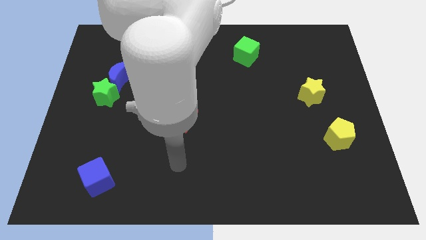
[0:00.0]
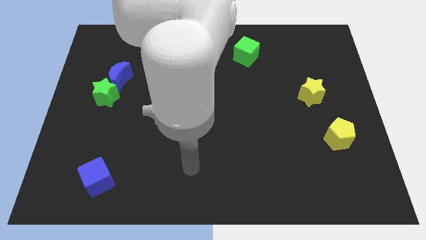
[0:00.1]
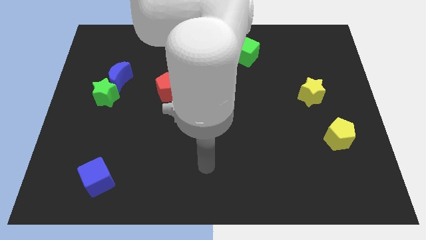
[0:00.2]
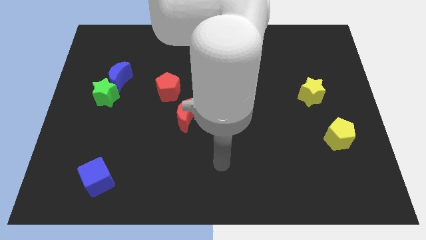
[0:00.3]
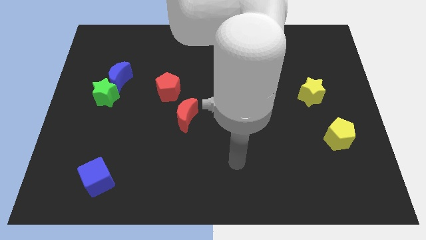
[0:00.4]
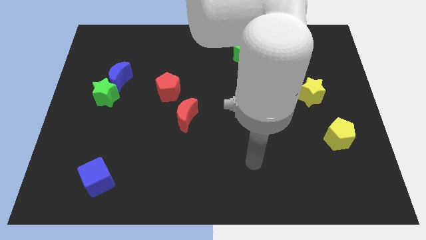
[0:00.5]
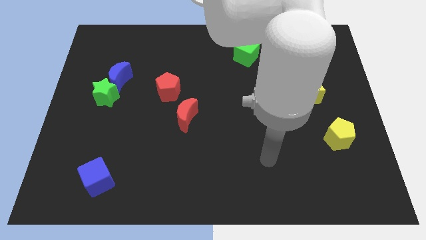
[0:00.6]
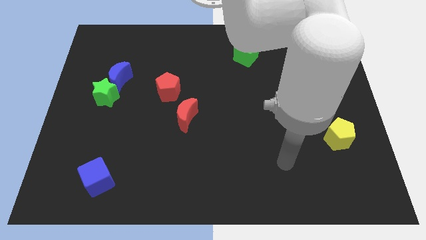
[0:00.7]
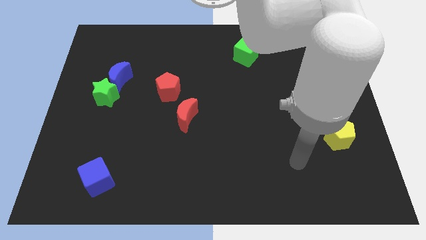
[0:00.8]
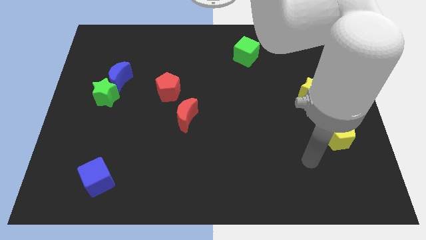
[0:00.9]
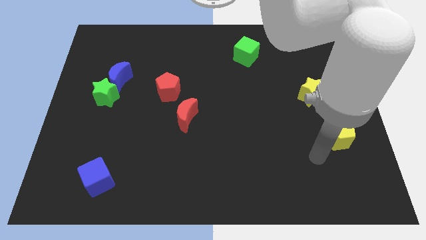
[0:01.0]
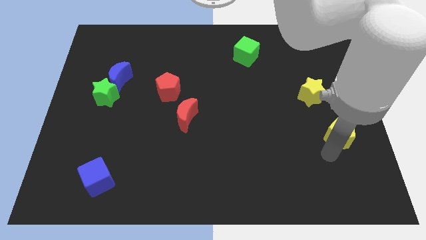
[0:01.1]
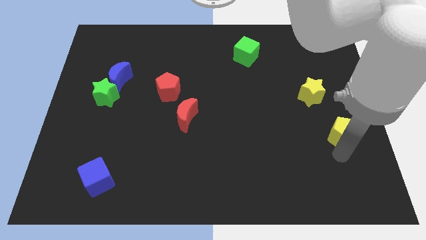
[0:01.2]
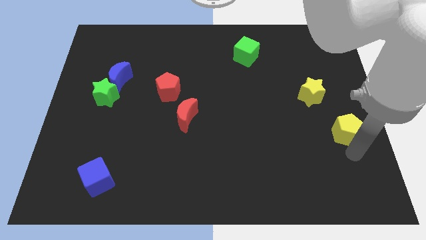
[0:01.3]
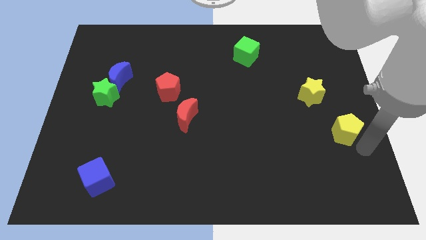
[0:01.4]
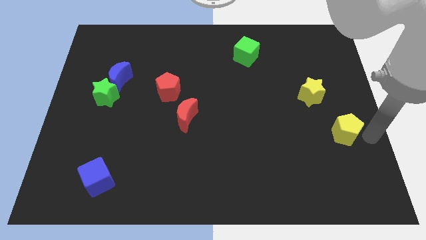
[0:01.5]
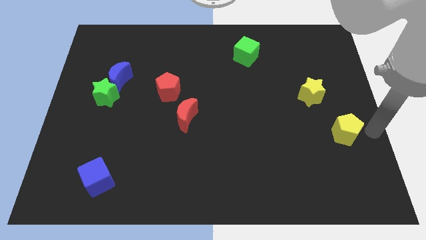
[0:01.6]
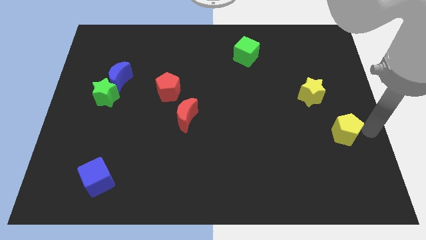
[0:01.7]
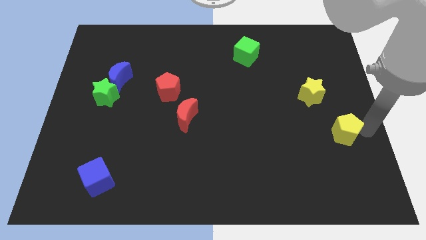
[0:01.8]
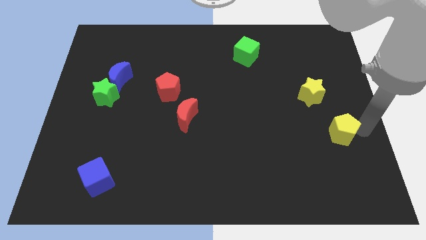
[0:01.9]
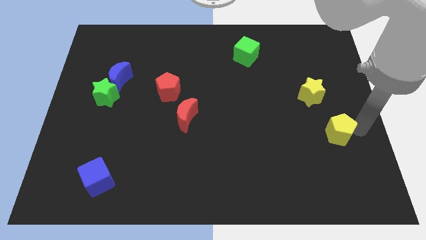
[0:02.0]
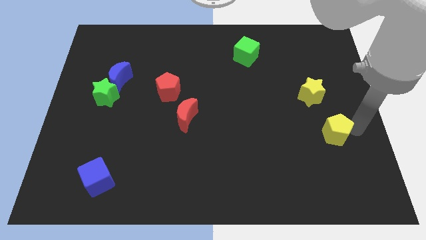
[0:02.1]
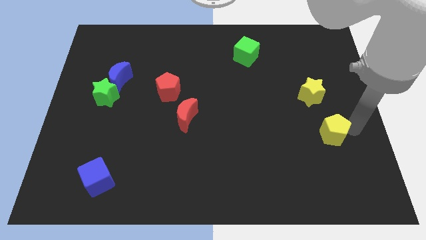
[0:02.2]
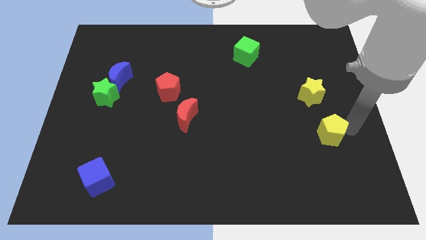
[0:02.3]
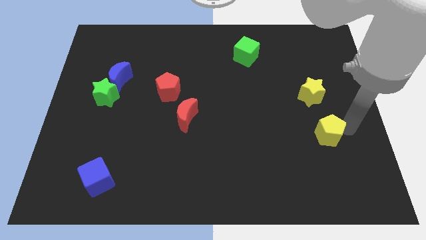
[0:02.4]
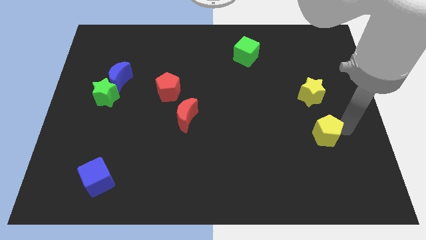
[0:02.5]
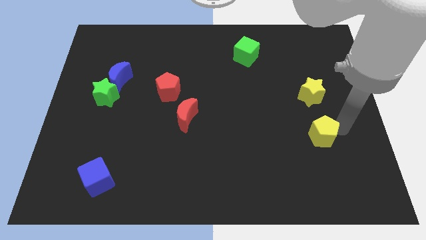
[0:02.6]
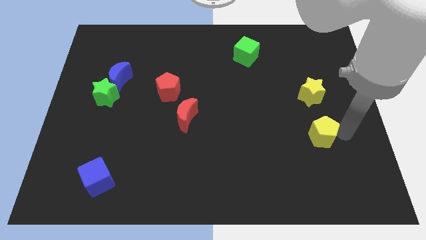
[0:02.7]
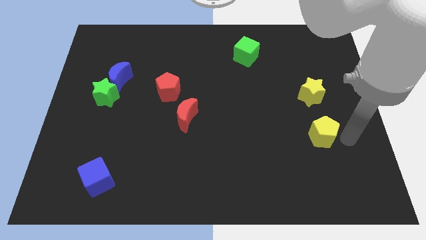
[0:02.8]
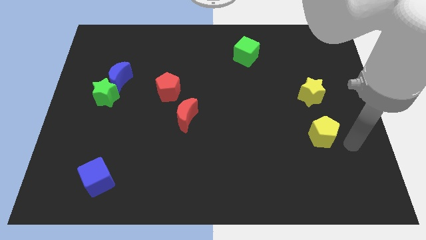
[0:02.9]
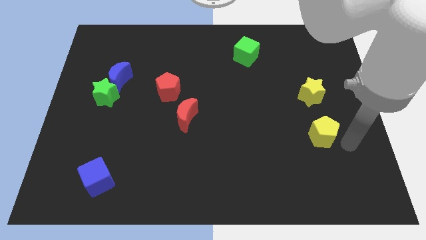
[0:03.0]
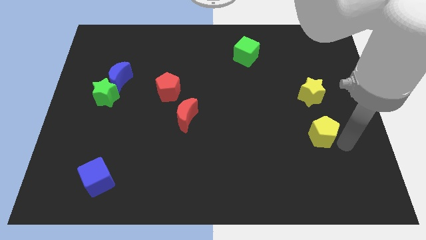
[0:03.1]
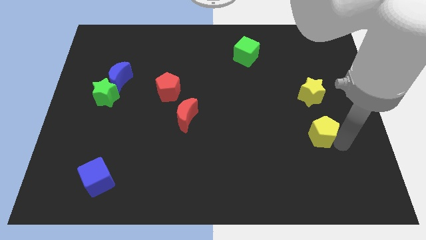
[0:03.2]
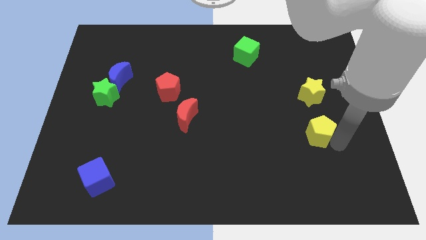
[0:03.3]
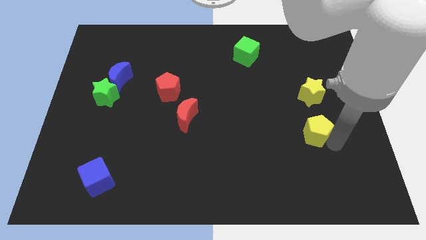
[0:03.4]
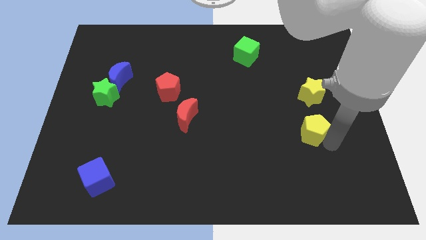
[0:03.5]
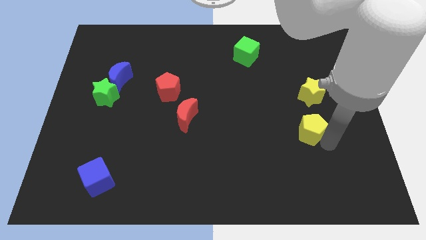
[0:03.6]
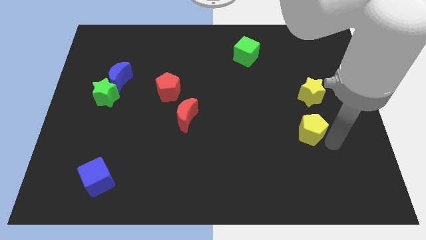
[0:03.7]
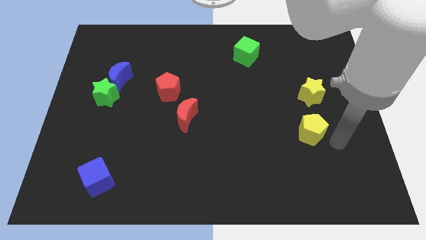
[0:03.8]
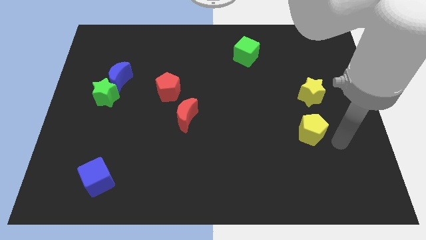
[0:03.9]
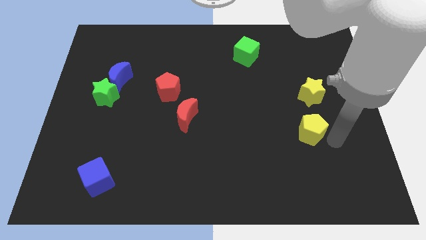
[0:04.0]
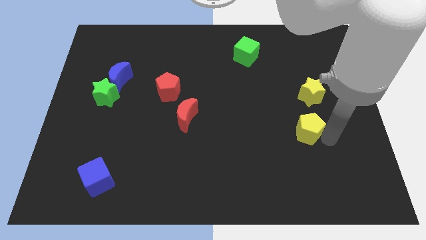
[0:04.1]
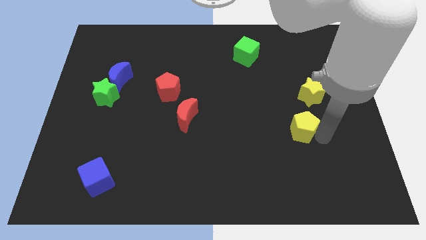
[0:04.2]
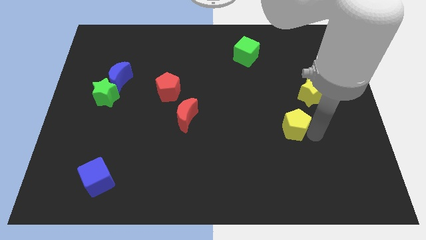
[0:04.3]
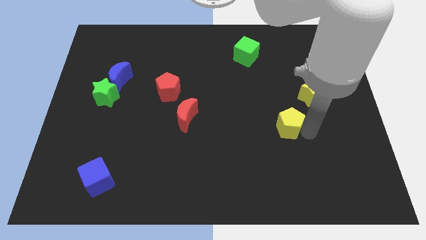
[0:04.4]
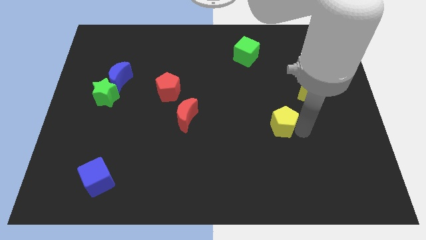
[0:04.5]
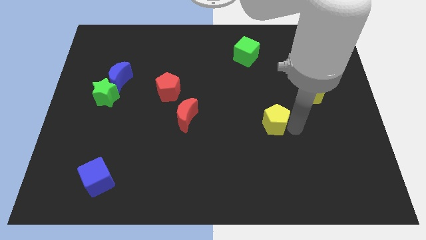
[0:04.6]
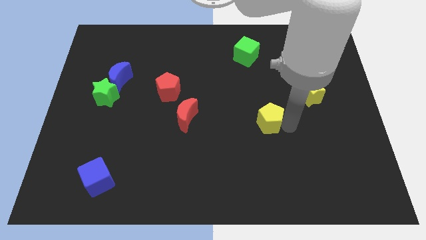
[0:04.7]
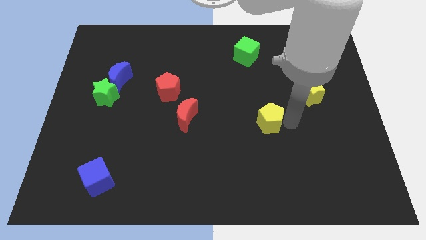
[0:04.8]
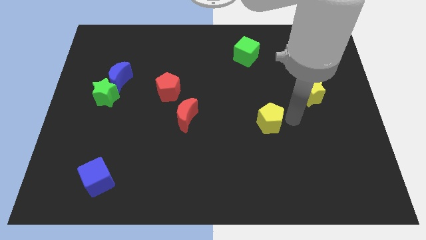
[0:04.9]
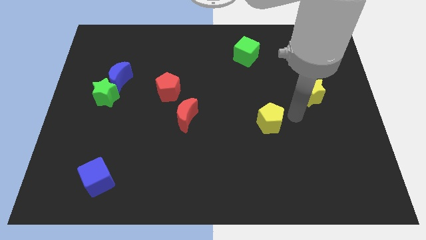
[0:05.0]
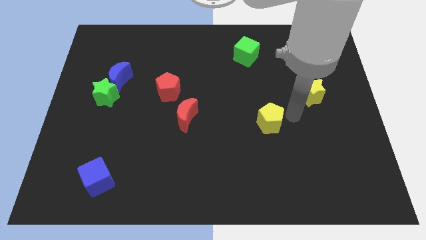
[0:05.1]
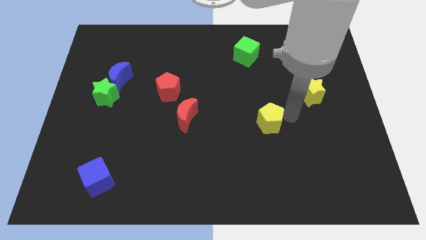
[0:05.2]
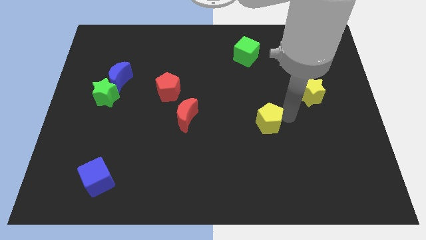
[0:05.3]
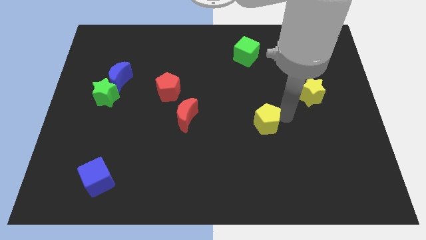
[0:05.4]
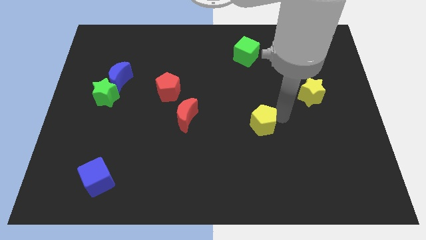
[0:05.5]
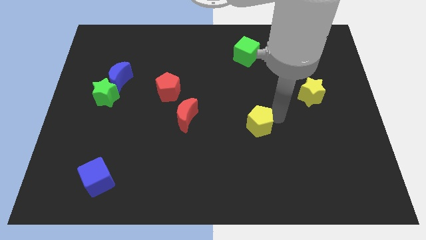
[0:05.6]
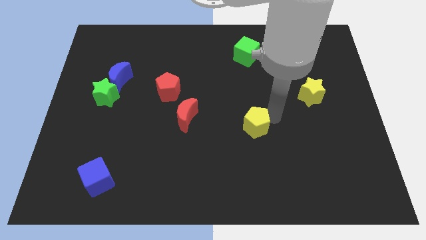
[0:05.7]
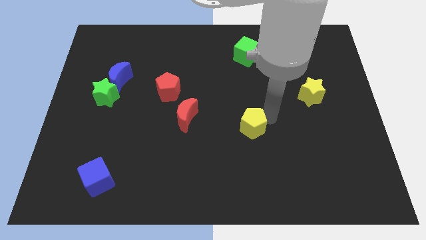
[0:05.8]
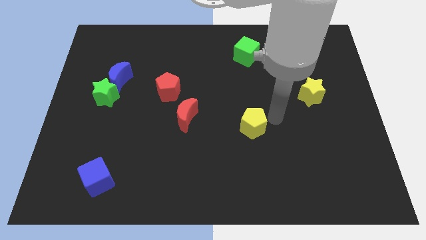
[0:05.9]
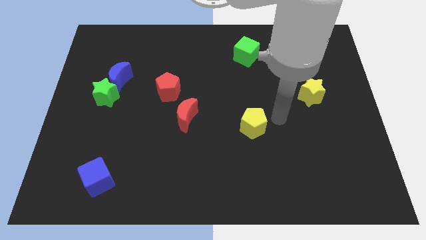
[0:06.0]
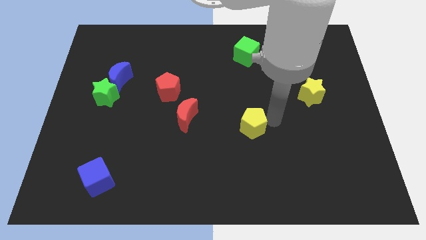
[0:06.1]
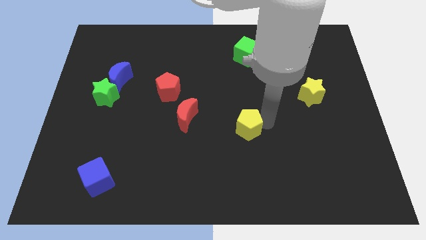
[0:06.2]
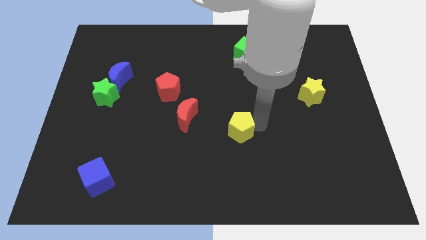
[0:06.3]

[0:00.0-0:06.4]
move the yellow pentagon to the left

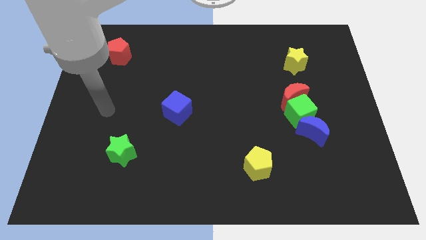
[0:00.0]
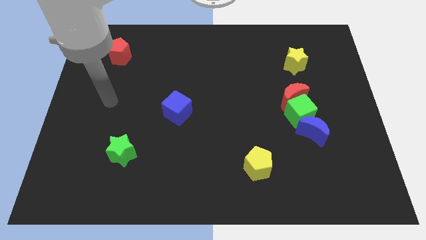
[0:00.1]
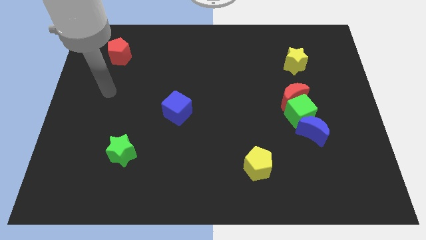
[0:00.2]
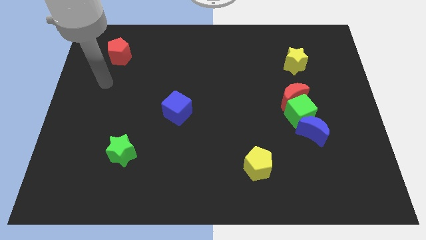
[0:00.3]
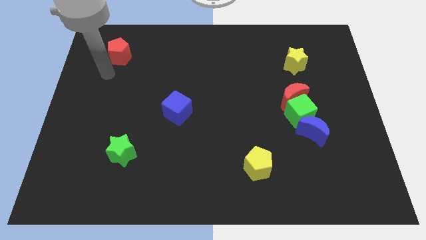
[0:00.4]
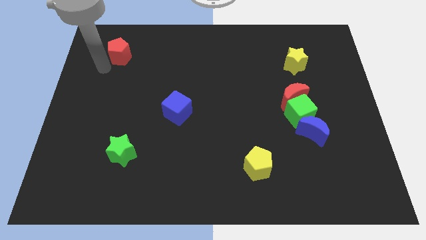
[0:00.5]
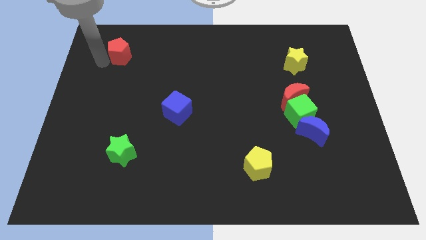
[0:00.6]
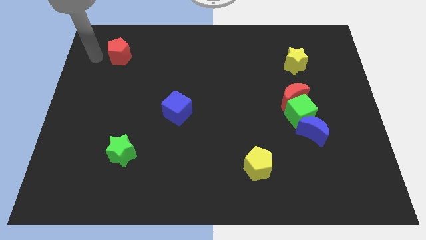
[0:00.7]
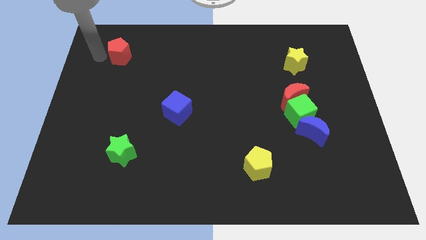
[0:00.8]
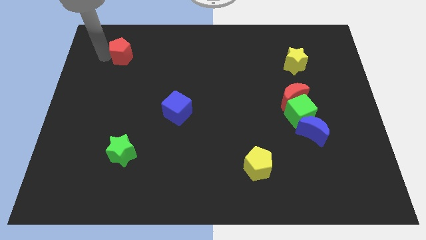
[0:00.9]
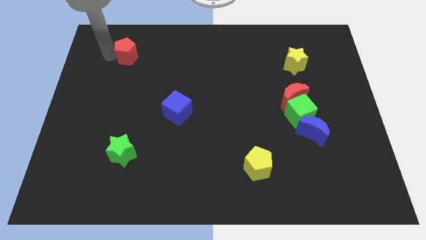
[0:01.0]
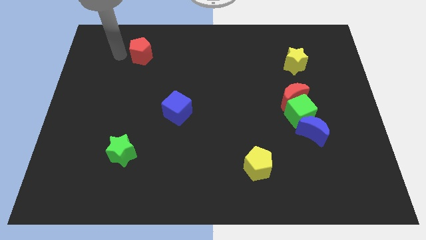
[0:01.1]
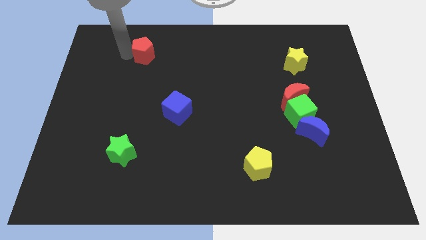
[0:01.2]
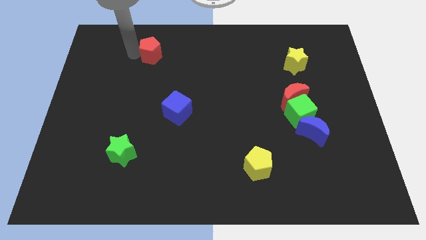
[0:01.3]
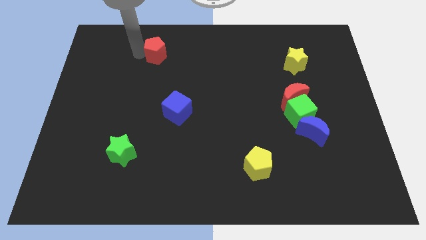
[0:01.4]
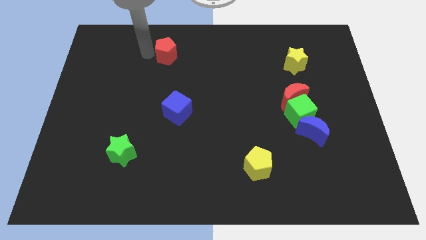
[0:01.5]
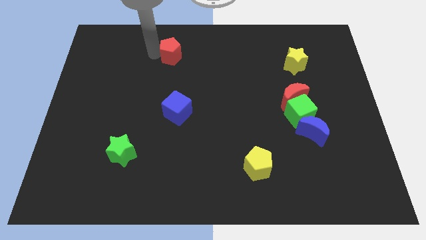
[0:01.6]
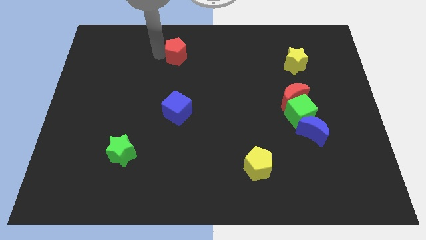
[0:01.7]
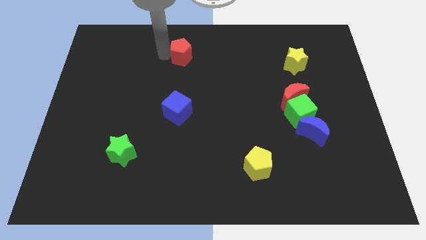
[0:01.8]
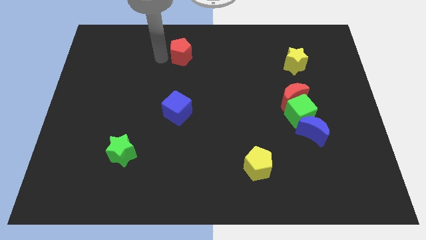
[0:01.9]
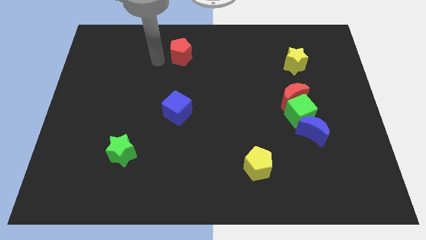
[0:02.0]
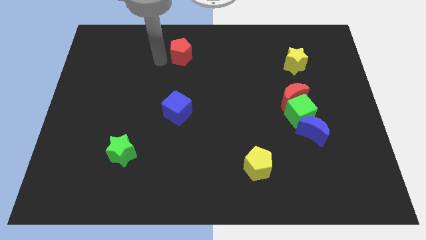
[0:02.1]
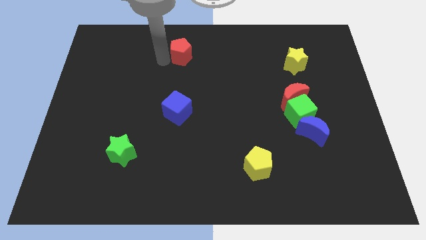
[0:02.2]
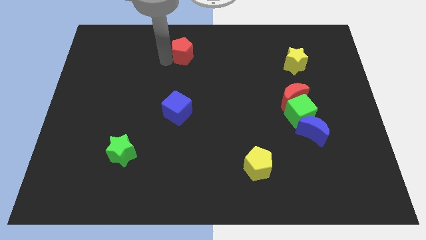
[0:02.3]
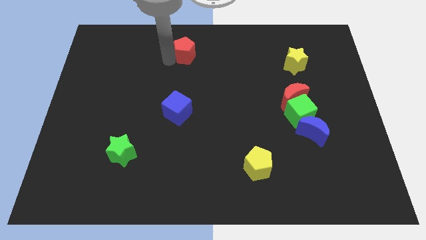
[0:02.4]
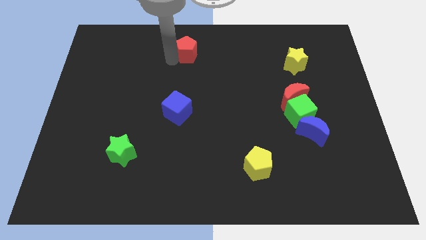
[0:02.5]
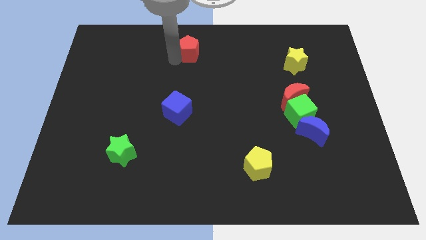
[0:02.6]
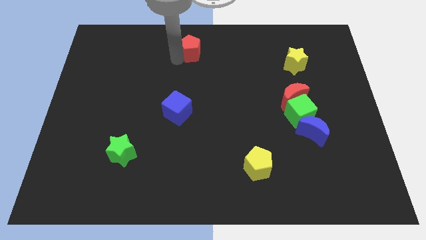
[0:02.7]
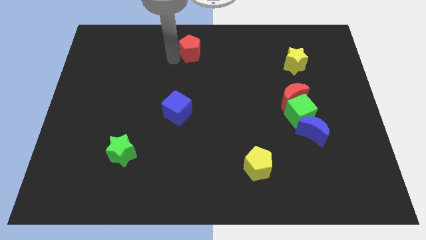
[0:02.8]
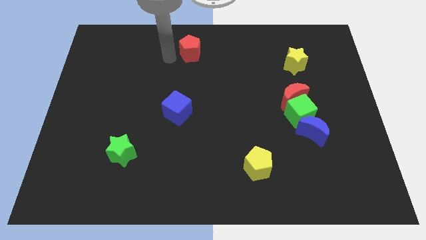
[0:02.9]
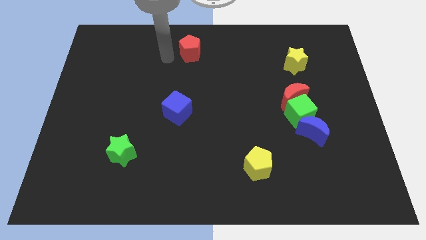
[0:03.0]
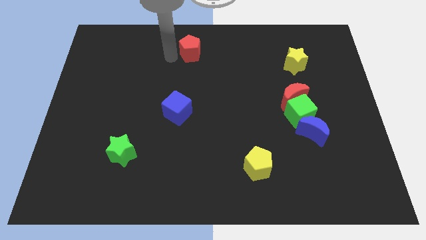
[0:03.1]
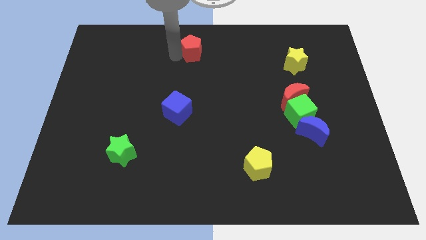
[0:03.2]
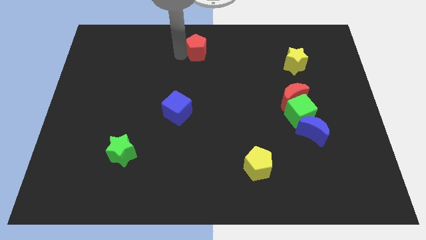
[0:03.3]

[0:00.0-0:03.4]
move the red pentagon right
